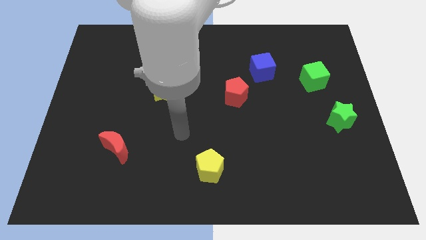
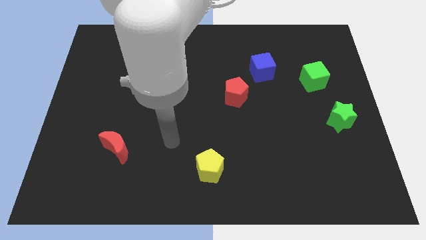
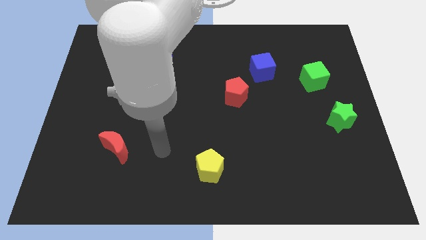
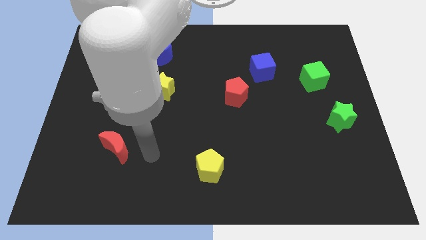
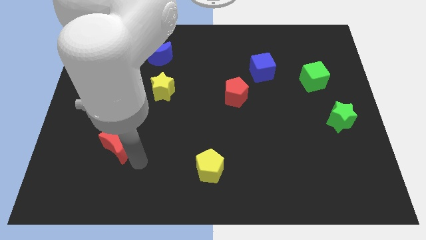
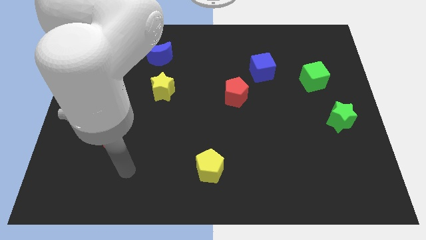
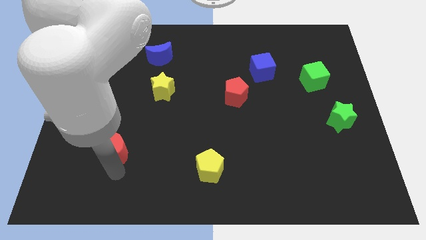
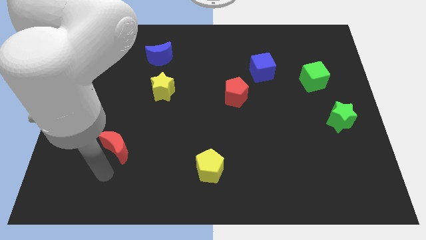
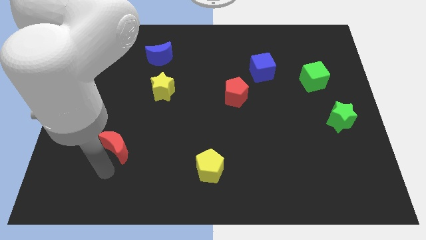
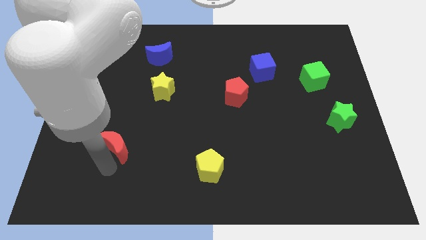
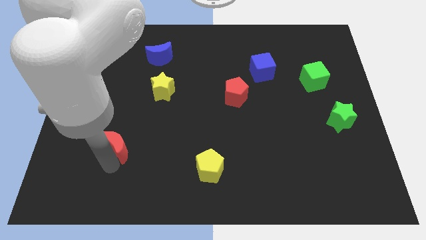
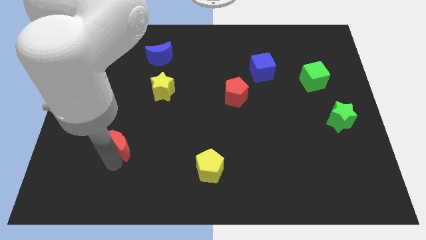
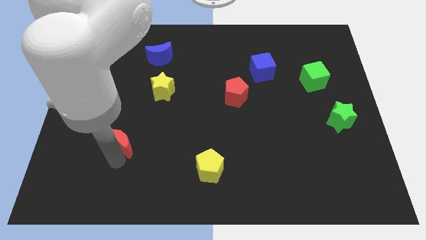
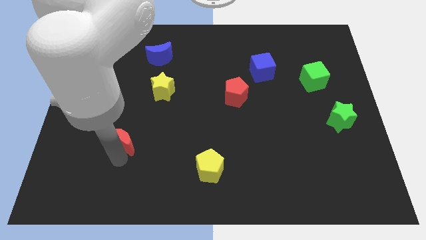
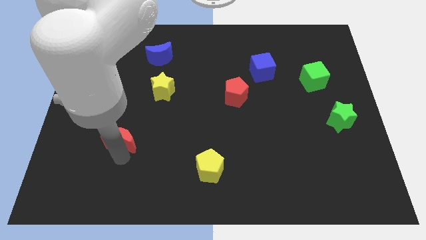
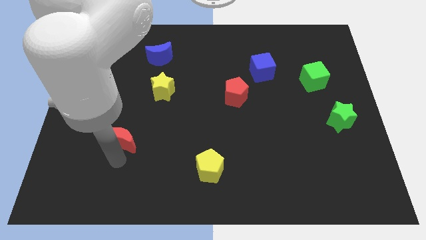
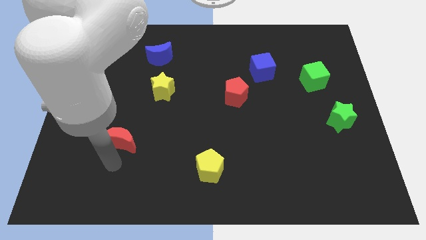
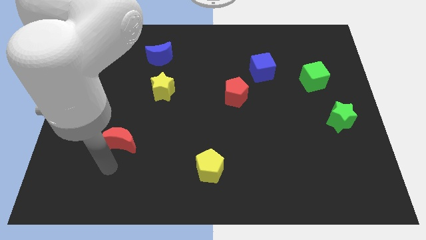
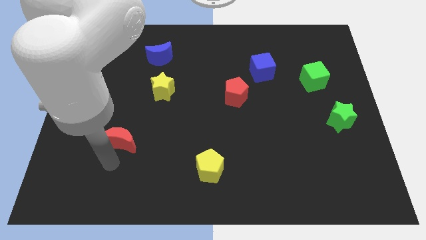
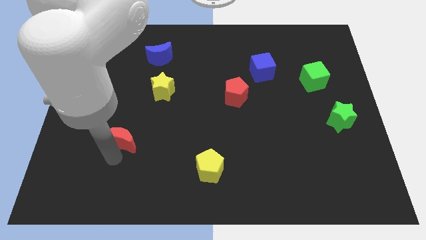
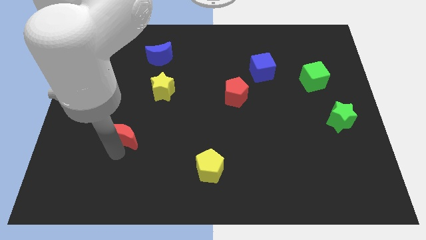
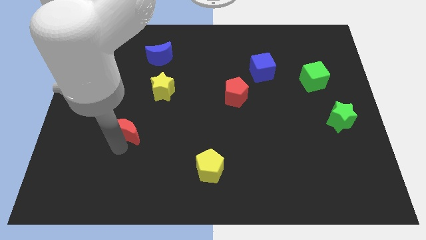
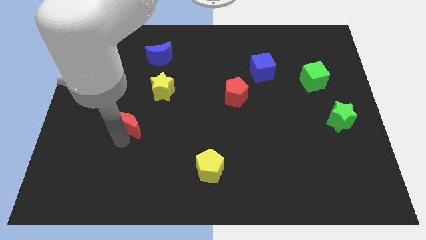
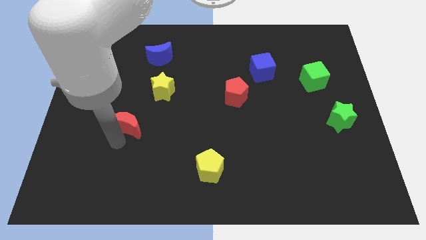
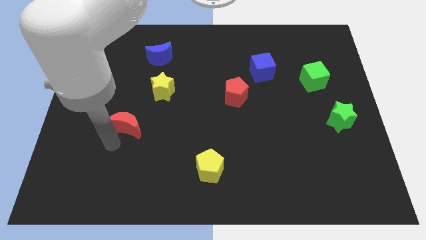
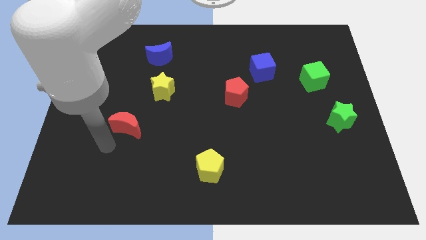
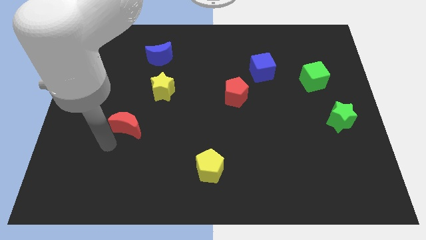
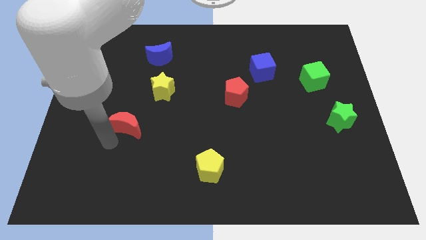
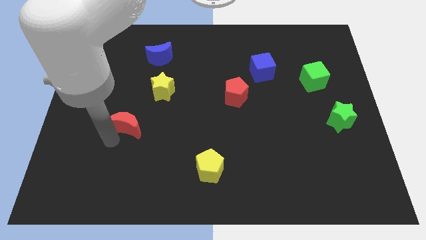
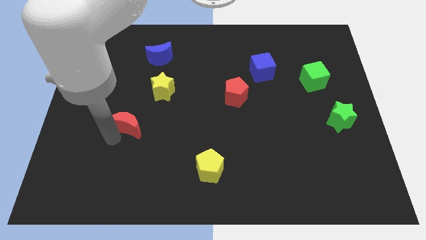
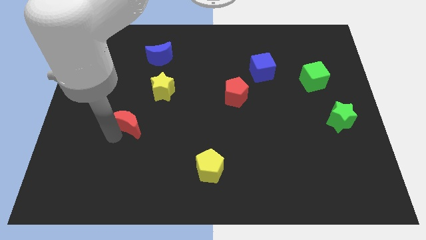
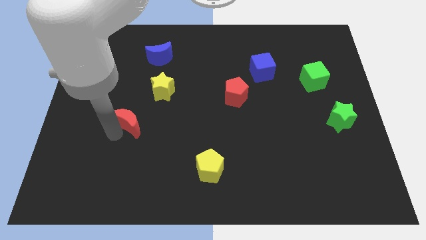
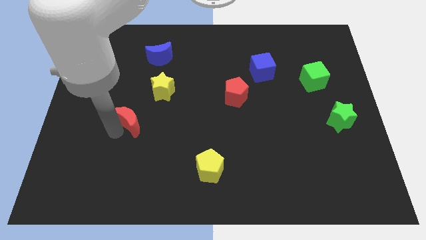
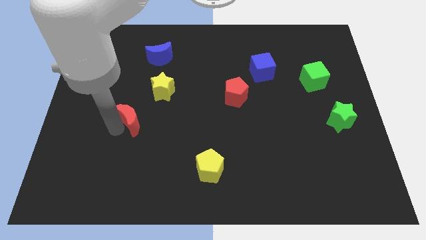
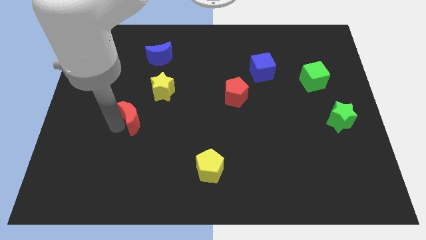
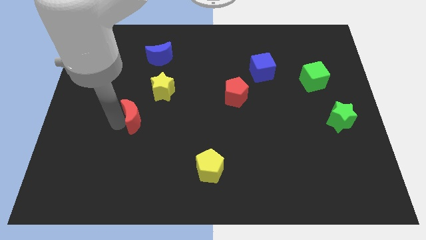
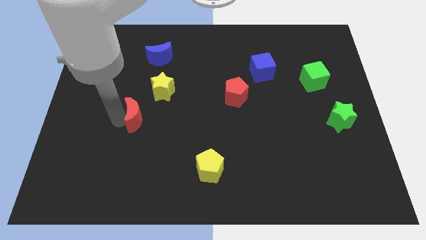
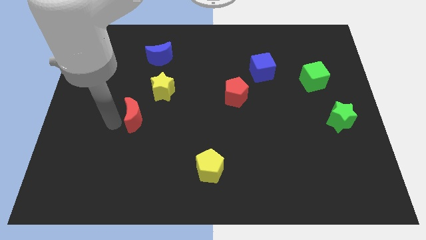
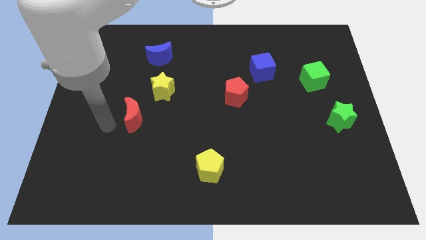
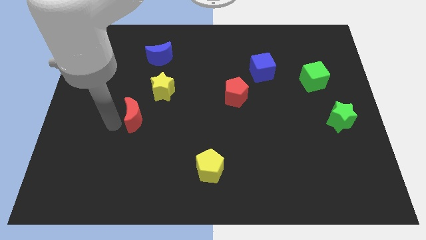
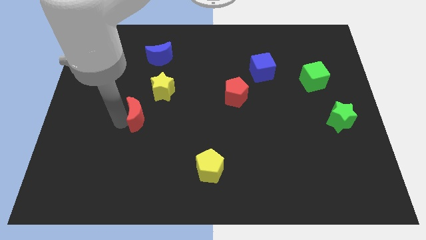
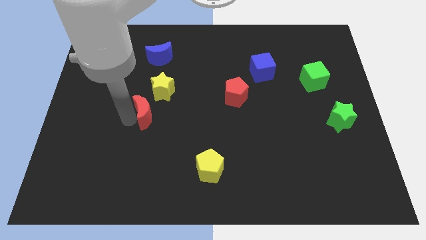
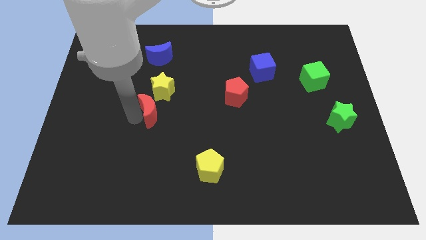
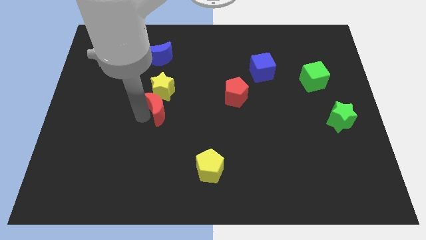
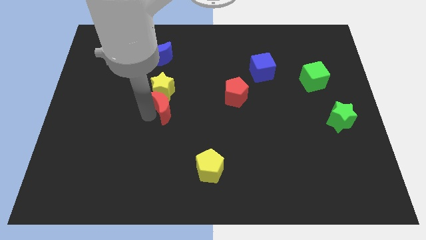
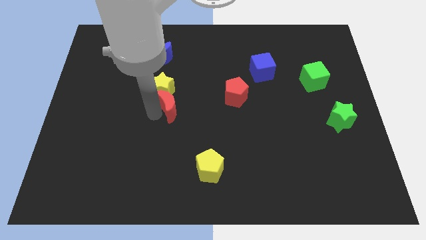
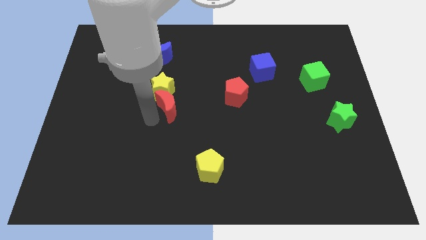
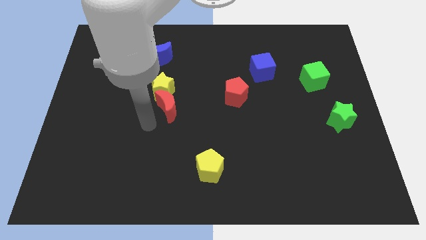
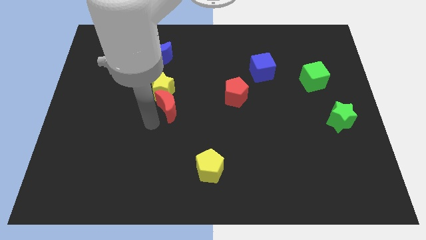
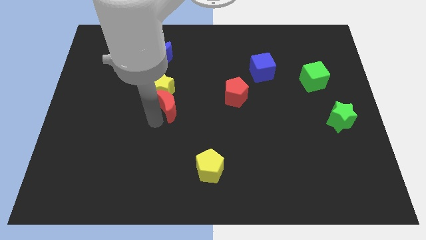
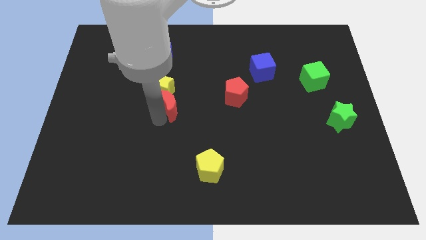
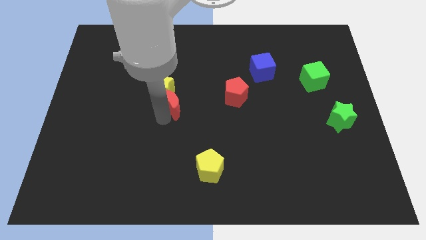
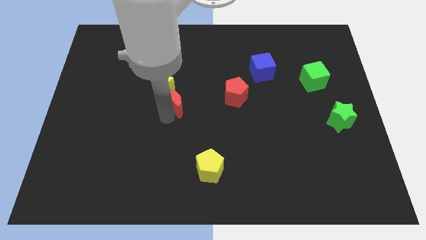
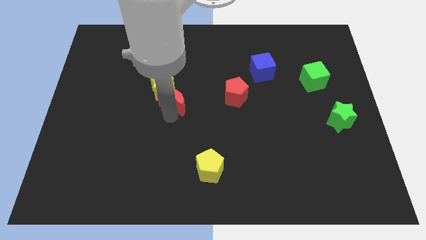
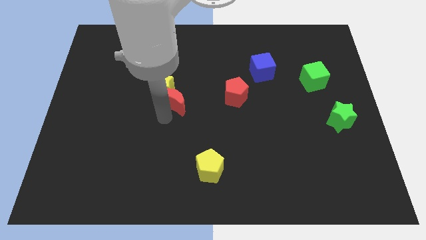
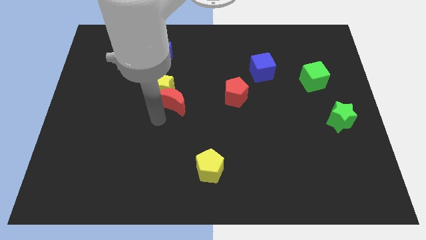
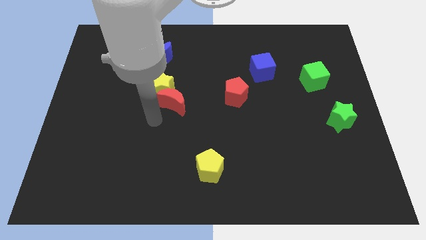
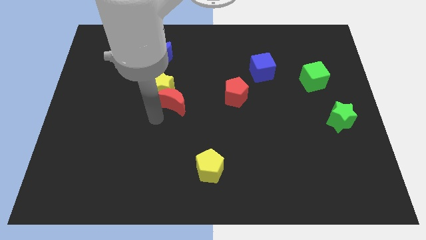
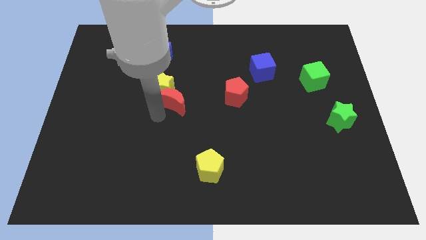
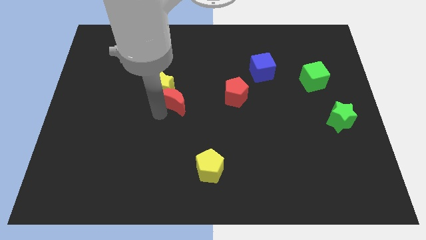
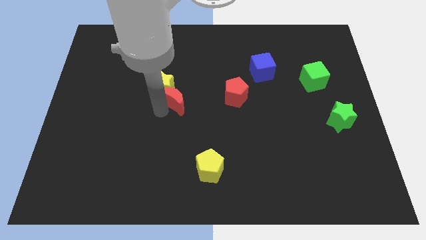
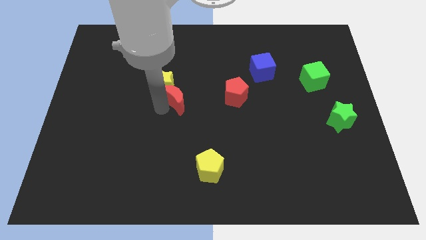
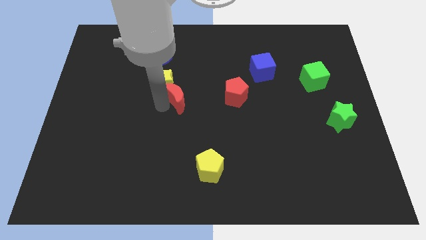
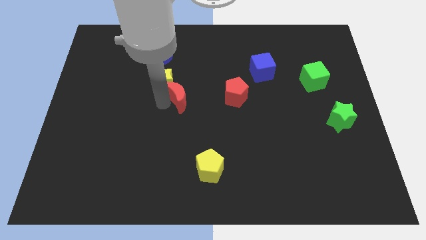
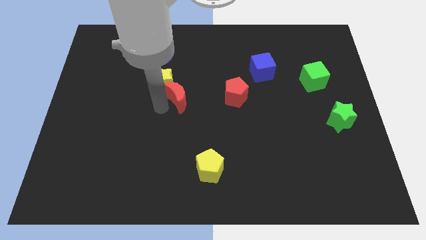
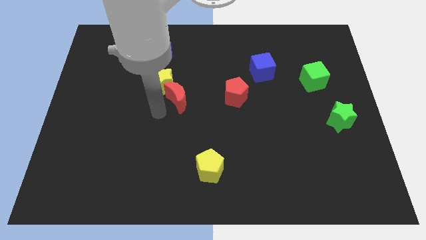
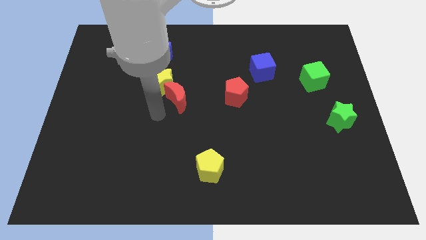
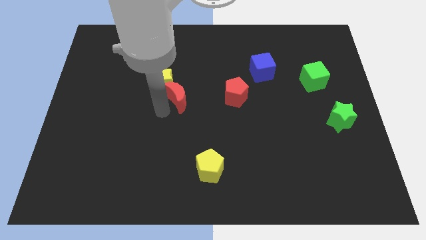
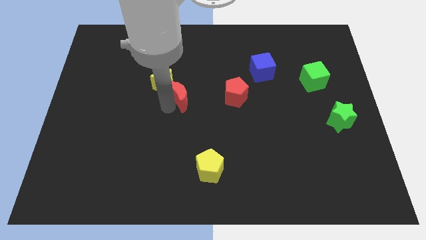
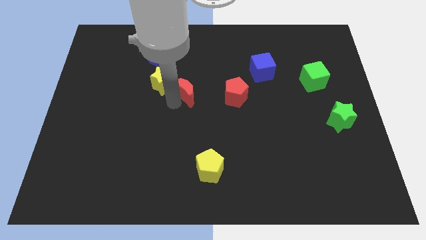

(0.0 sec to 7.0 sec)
push the red moon diagonally up and to the right

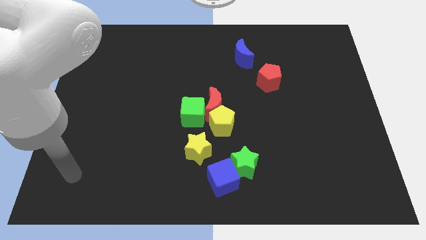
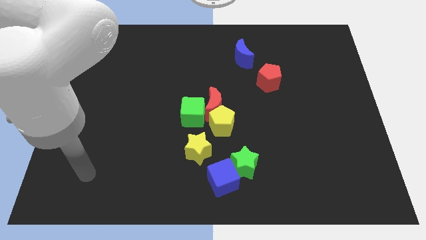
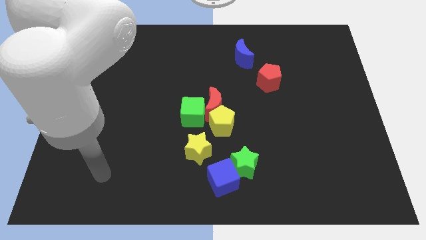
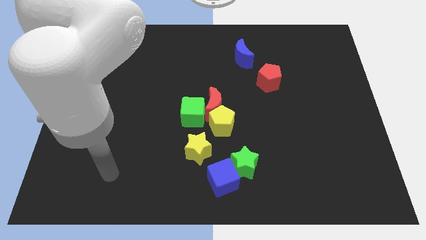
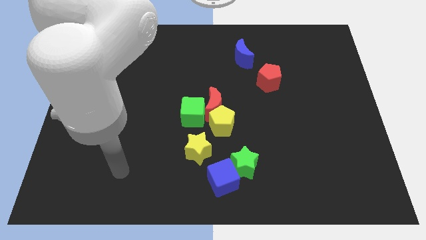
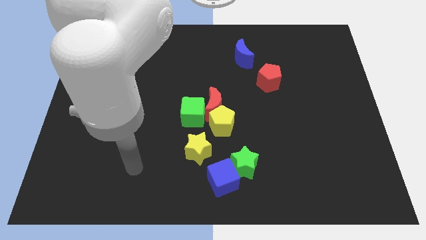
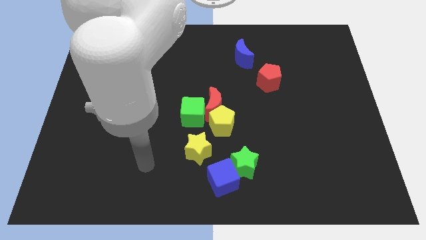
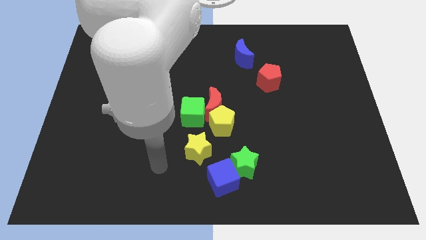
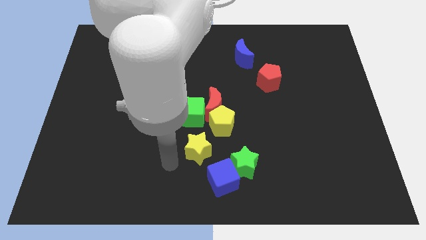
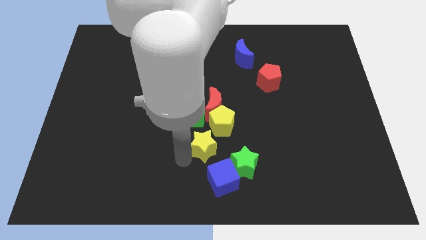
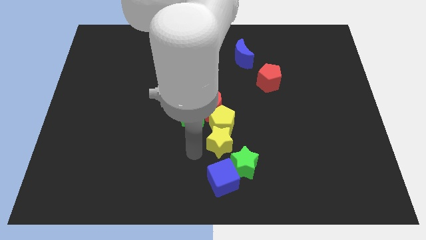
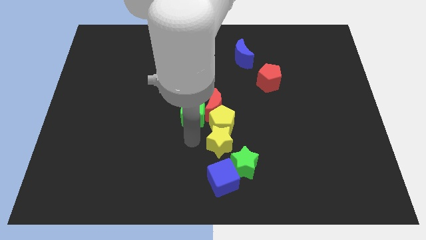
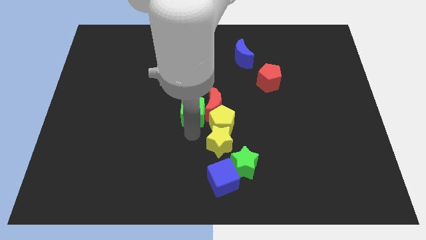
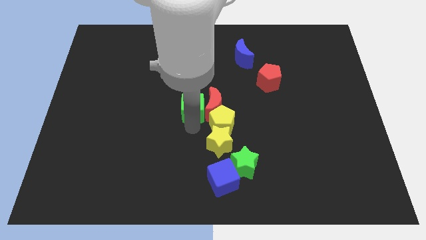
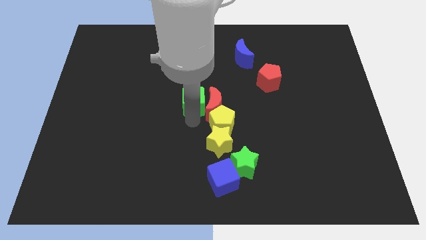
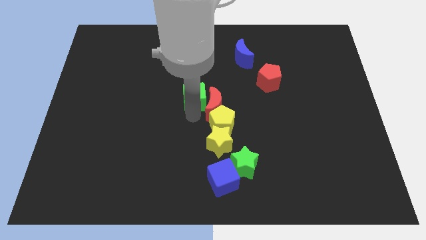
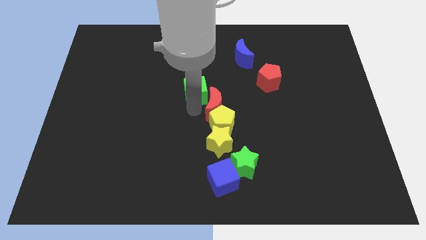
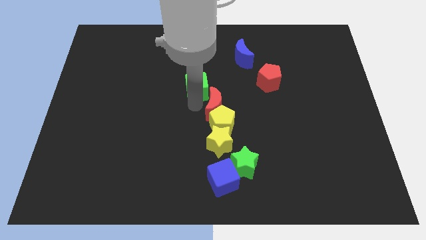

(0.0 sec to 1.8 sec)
push the green cube up slightly
